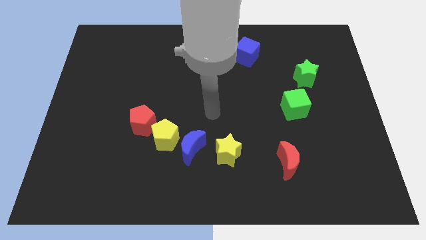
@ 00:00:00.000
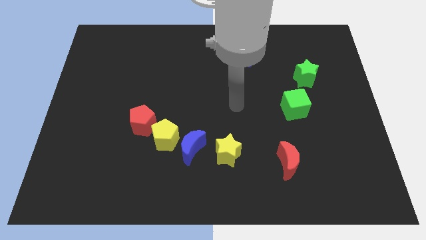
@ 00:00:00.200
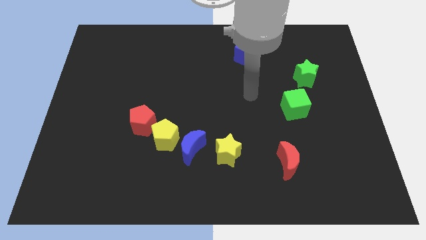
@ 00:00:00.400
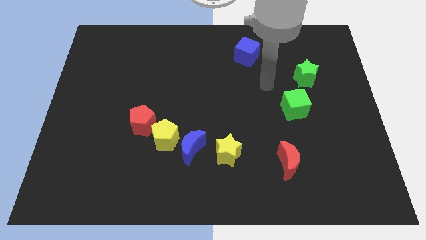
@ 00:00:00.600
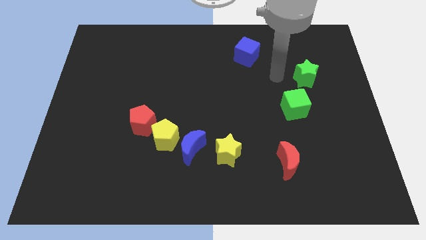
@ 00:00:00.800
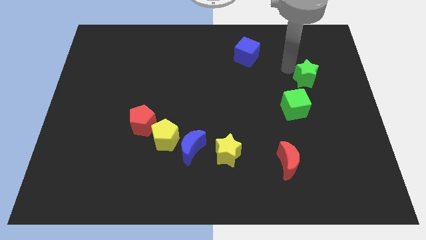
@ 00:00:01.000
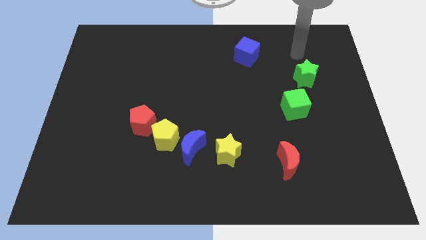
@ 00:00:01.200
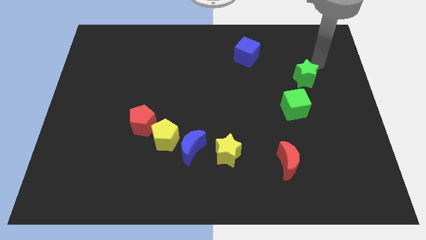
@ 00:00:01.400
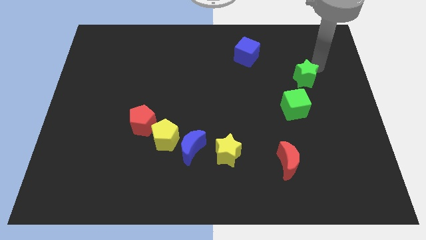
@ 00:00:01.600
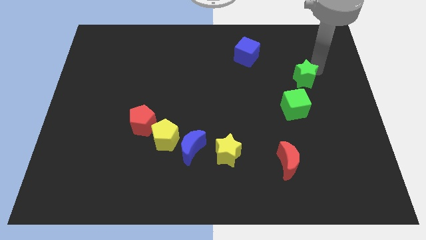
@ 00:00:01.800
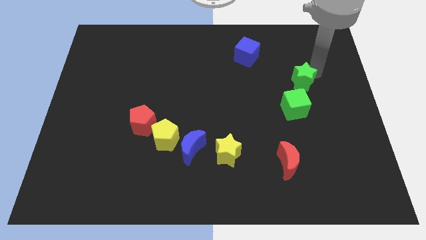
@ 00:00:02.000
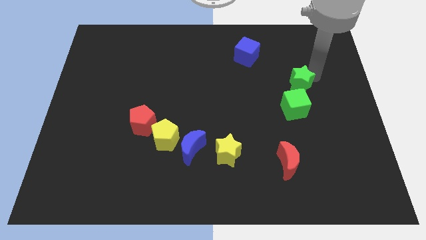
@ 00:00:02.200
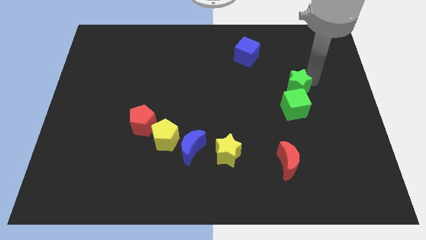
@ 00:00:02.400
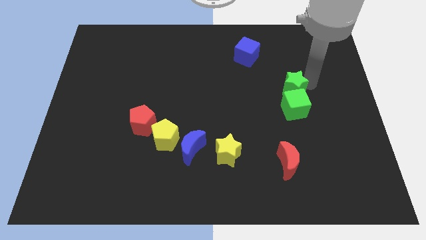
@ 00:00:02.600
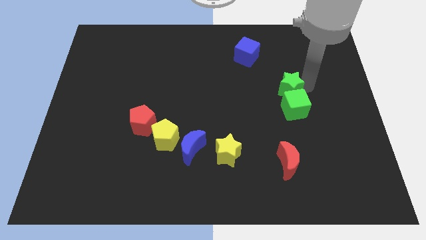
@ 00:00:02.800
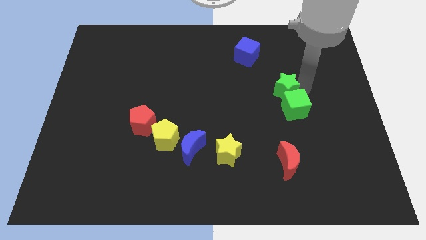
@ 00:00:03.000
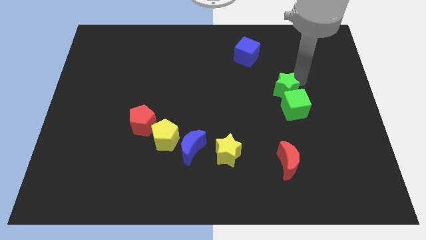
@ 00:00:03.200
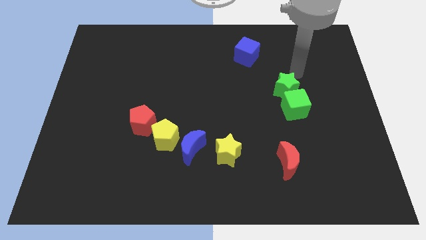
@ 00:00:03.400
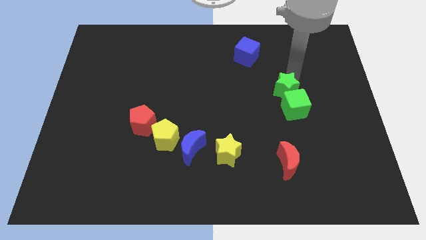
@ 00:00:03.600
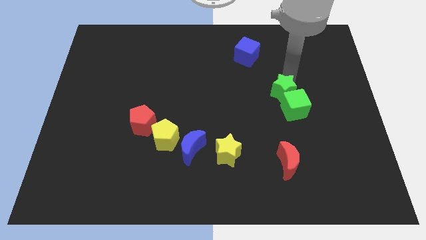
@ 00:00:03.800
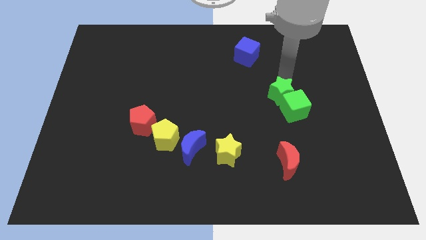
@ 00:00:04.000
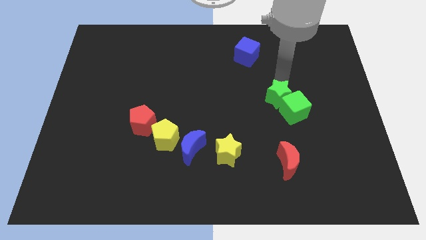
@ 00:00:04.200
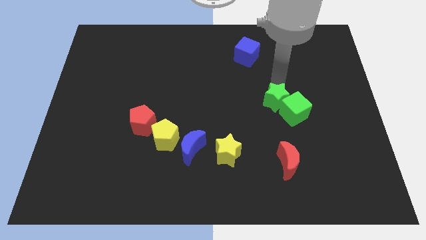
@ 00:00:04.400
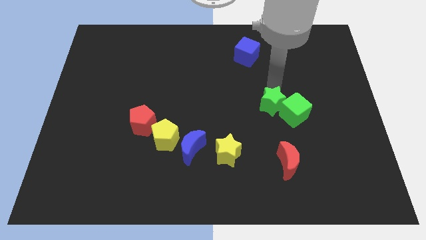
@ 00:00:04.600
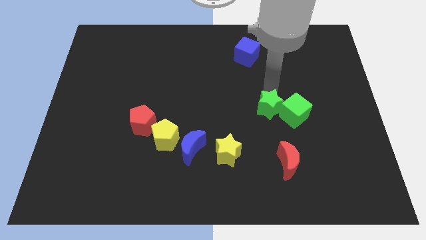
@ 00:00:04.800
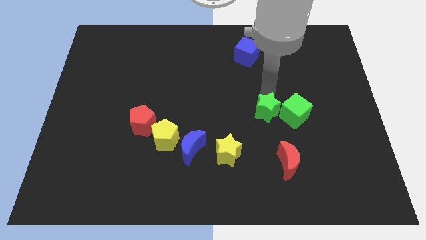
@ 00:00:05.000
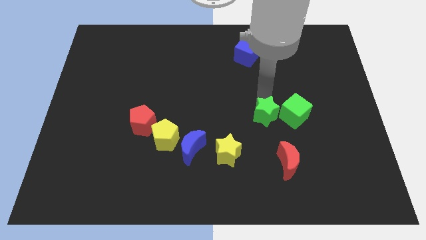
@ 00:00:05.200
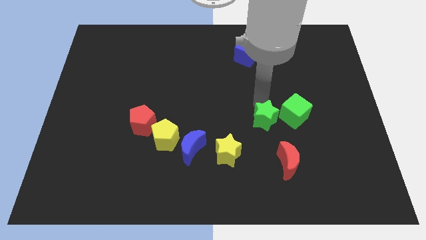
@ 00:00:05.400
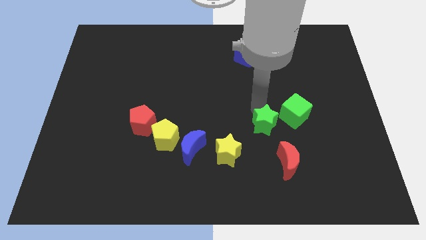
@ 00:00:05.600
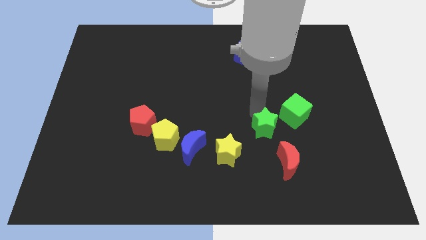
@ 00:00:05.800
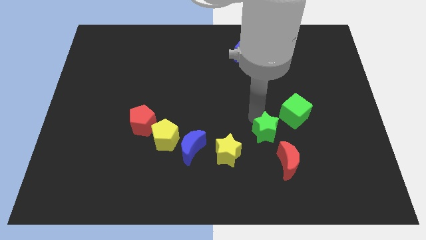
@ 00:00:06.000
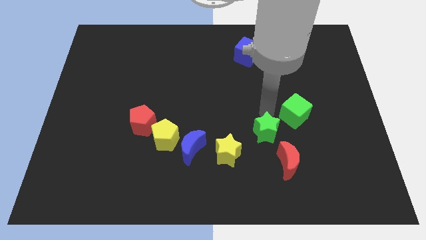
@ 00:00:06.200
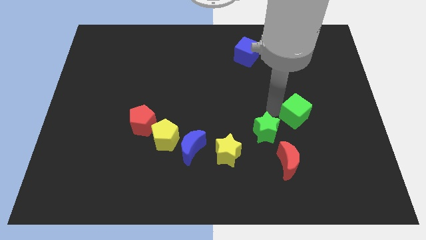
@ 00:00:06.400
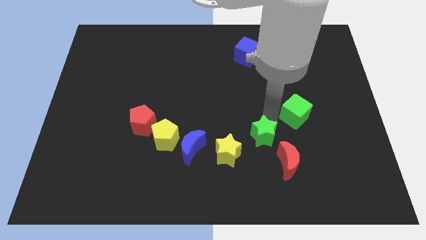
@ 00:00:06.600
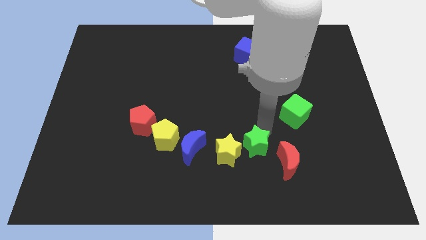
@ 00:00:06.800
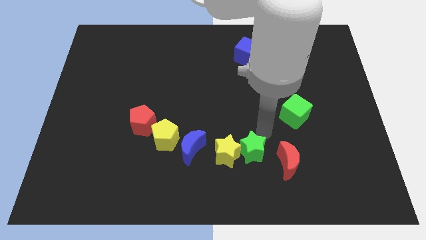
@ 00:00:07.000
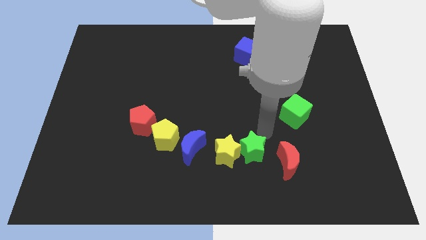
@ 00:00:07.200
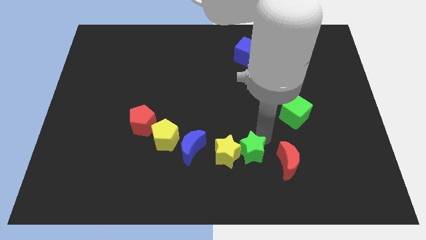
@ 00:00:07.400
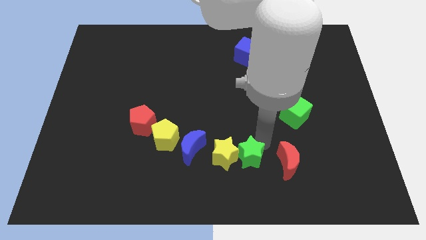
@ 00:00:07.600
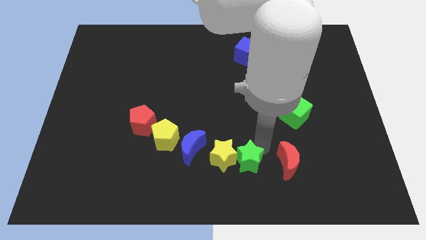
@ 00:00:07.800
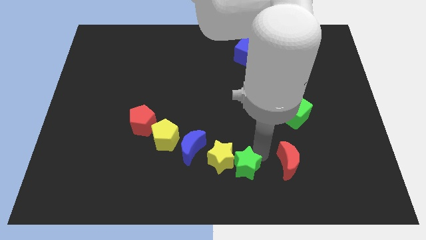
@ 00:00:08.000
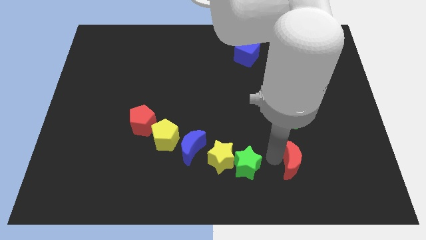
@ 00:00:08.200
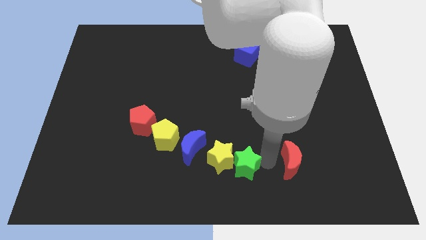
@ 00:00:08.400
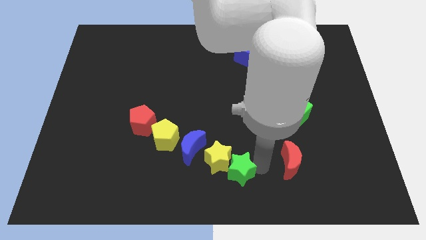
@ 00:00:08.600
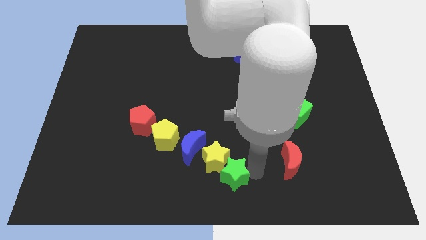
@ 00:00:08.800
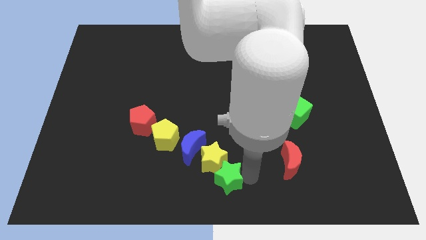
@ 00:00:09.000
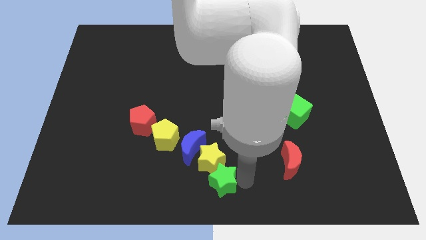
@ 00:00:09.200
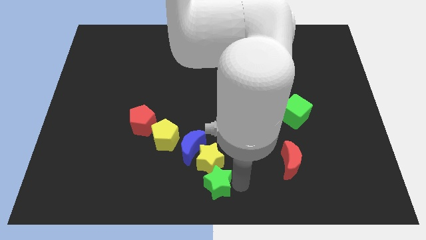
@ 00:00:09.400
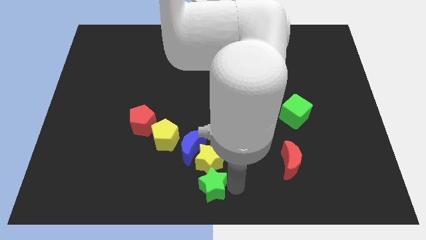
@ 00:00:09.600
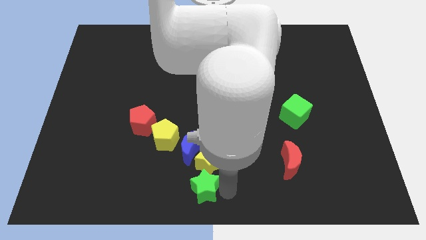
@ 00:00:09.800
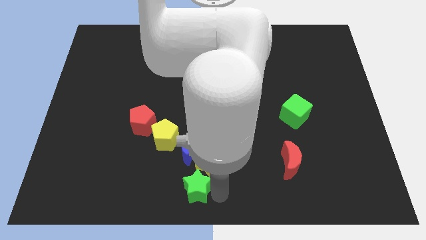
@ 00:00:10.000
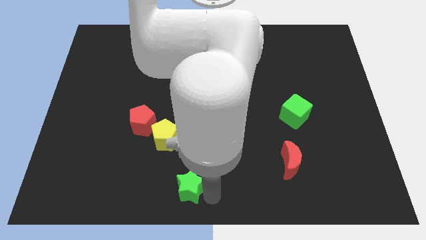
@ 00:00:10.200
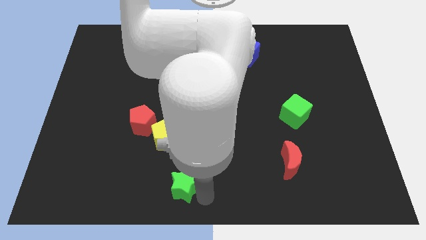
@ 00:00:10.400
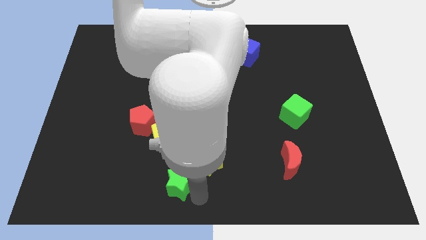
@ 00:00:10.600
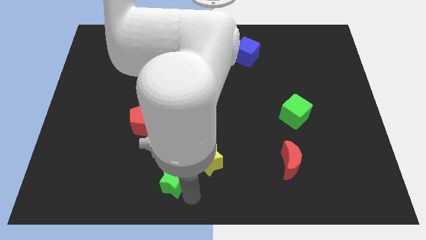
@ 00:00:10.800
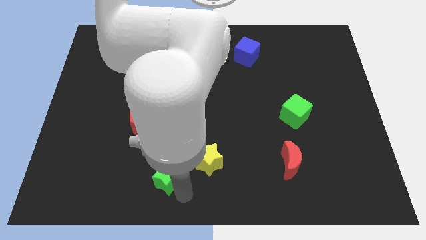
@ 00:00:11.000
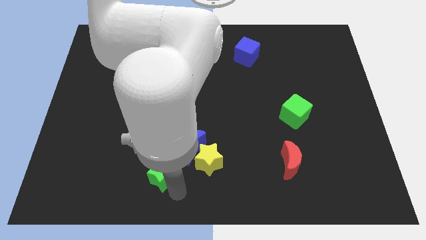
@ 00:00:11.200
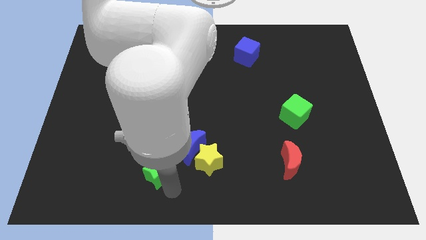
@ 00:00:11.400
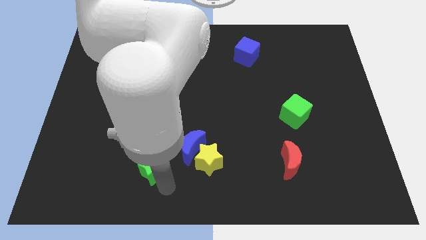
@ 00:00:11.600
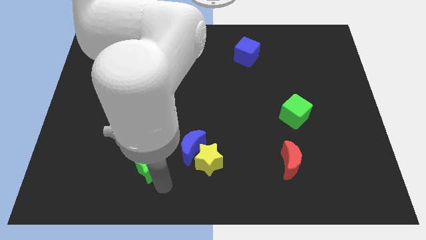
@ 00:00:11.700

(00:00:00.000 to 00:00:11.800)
push the green star to the left side of the blue moon

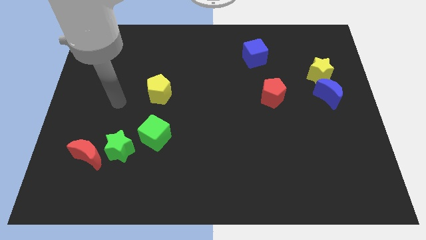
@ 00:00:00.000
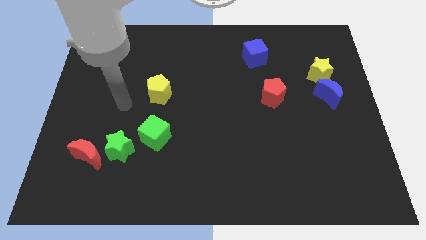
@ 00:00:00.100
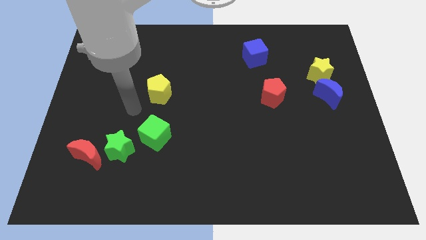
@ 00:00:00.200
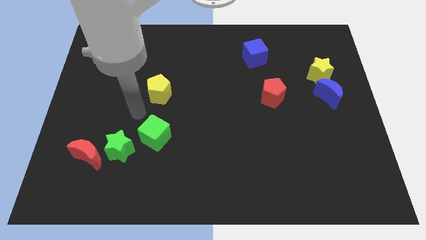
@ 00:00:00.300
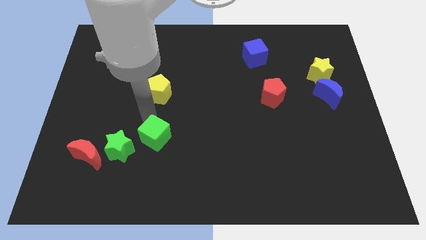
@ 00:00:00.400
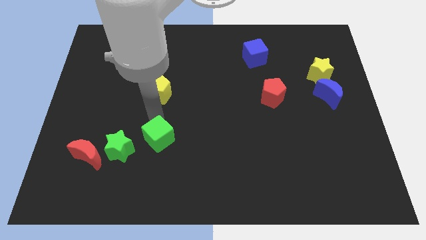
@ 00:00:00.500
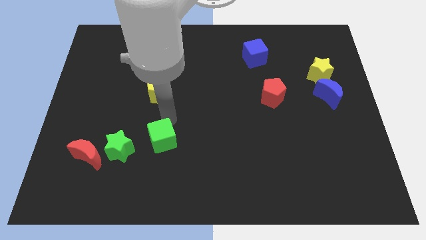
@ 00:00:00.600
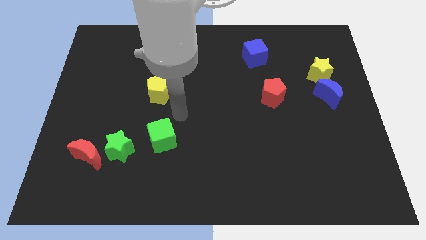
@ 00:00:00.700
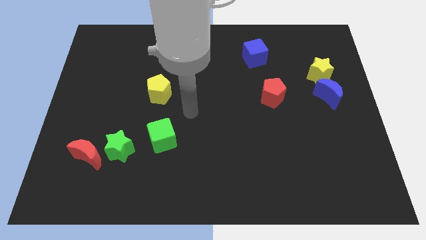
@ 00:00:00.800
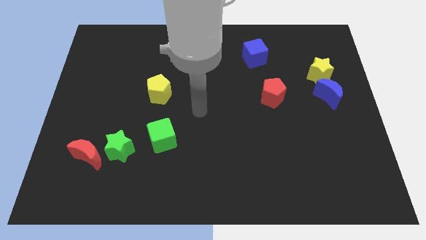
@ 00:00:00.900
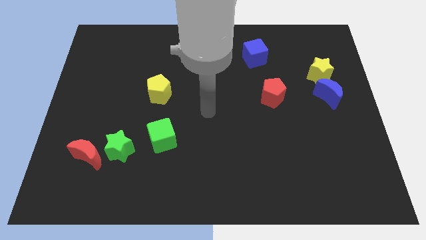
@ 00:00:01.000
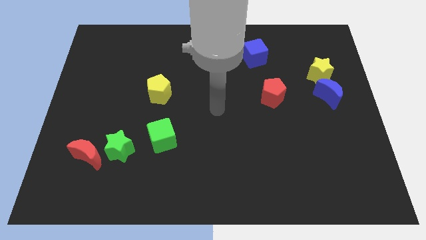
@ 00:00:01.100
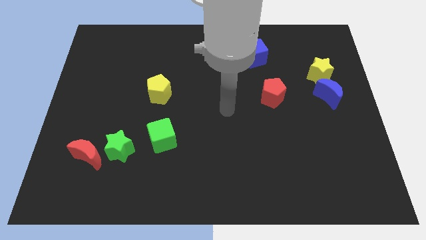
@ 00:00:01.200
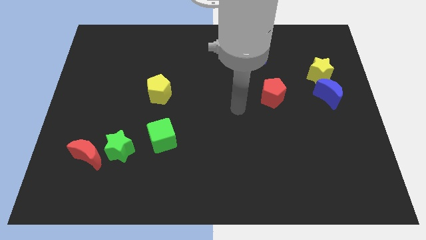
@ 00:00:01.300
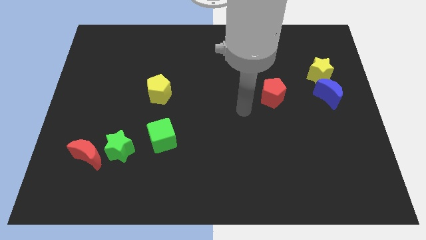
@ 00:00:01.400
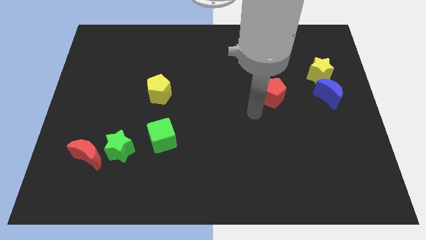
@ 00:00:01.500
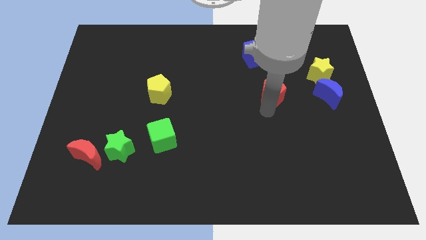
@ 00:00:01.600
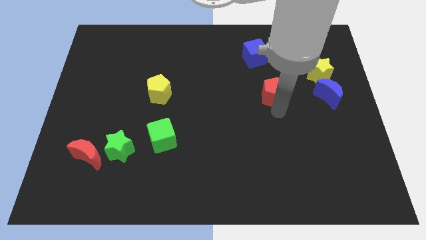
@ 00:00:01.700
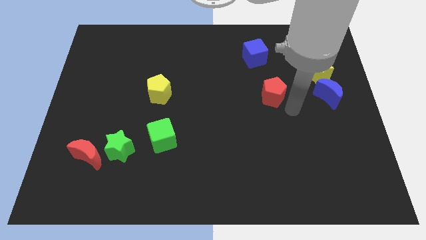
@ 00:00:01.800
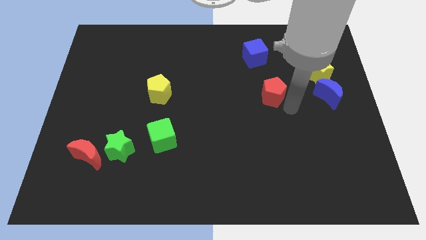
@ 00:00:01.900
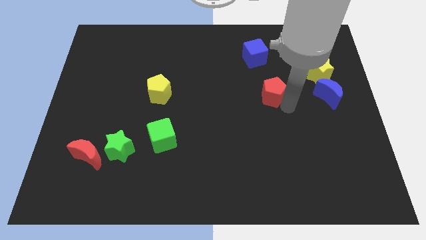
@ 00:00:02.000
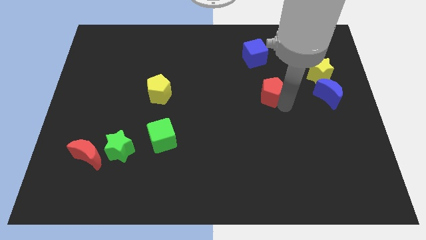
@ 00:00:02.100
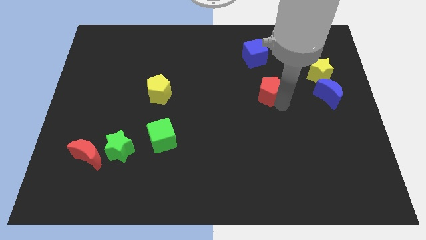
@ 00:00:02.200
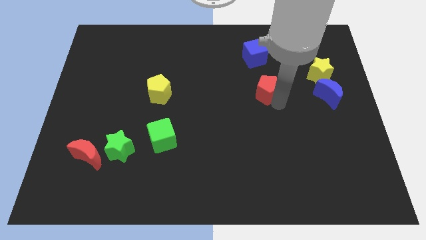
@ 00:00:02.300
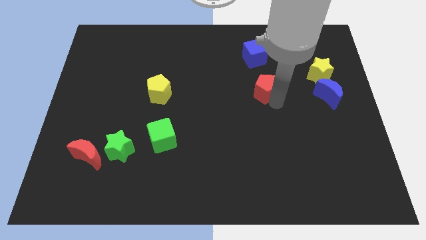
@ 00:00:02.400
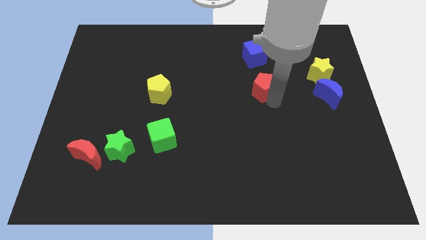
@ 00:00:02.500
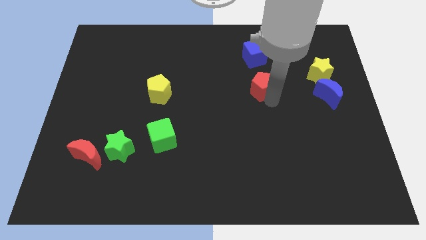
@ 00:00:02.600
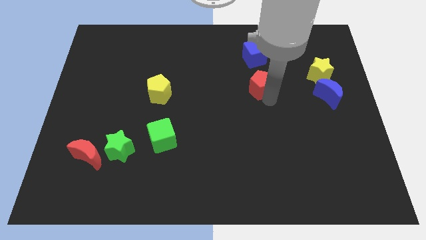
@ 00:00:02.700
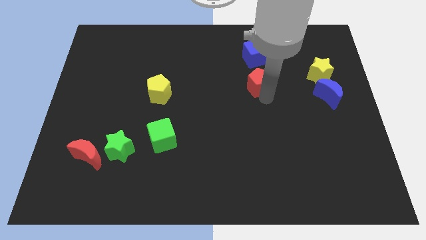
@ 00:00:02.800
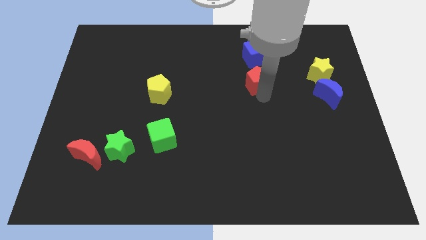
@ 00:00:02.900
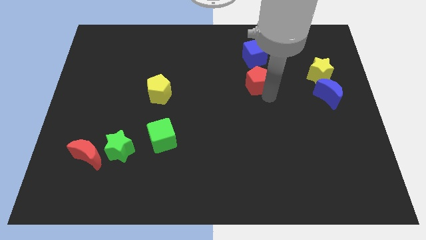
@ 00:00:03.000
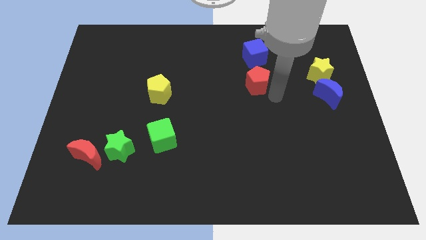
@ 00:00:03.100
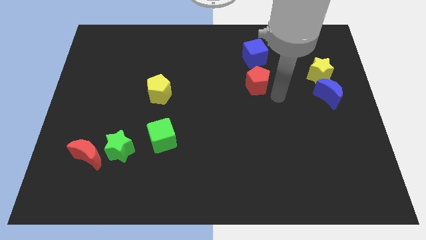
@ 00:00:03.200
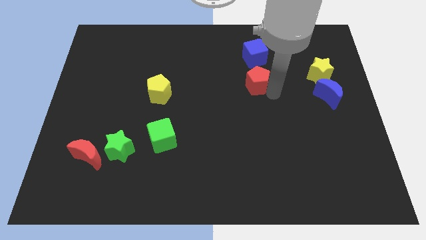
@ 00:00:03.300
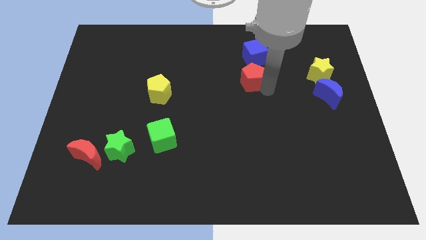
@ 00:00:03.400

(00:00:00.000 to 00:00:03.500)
push the red pentagon diagonally down and to the left of the blue cube
